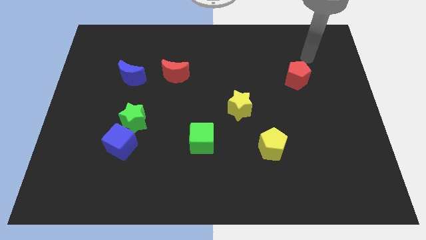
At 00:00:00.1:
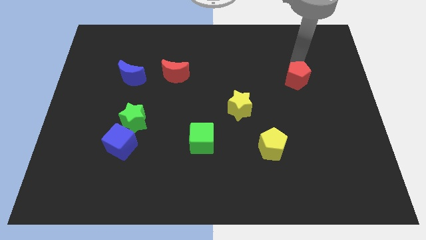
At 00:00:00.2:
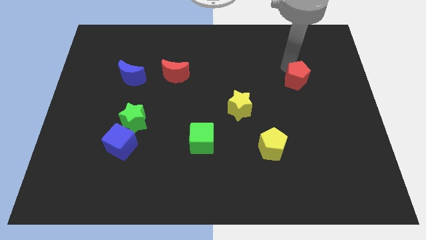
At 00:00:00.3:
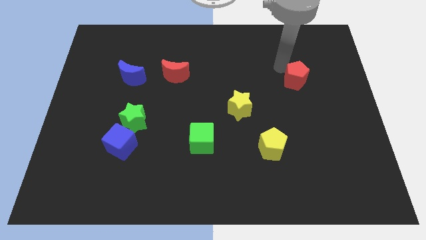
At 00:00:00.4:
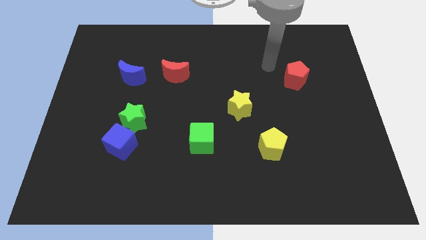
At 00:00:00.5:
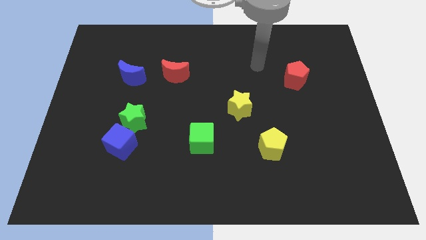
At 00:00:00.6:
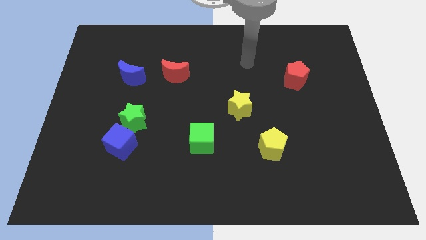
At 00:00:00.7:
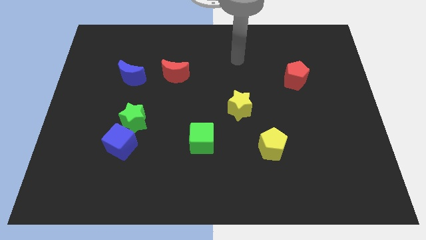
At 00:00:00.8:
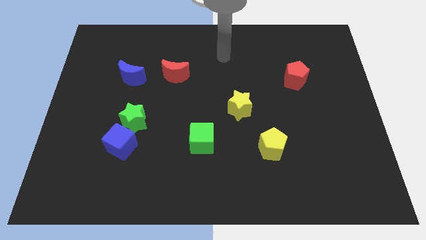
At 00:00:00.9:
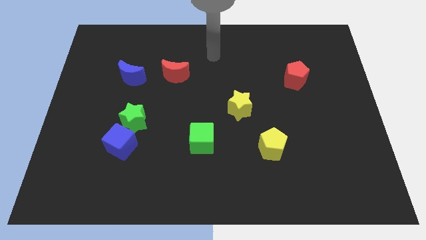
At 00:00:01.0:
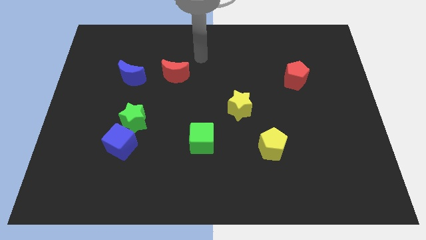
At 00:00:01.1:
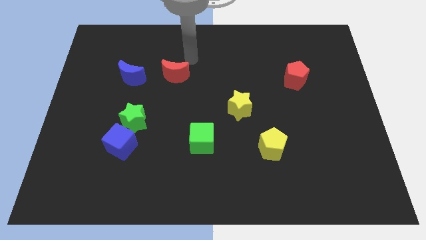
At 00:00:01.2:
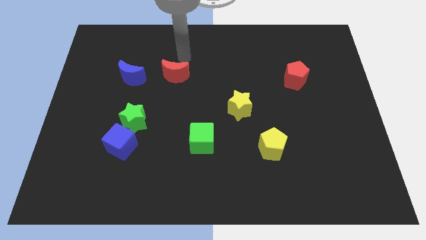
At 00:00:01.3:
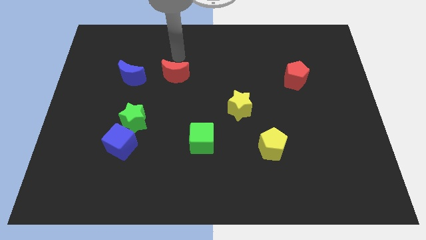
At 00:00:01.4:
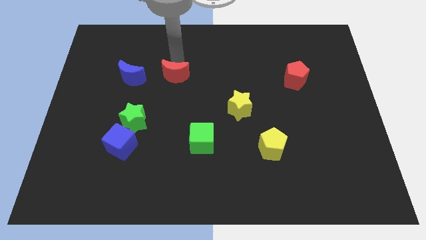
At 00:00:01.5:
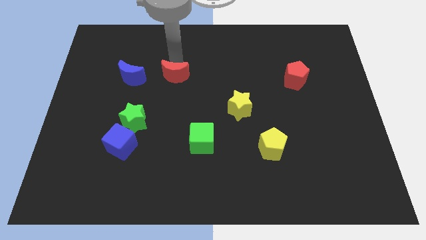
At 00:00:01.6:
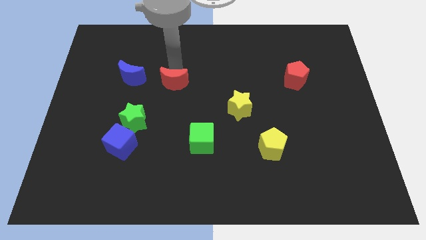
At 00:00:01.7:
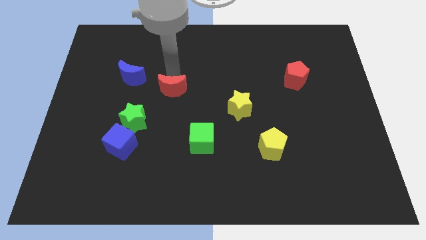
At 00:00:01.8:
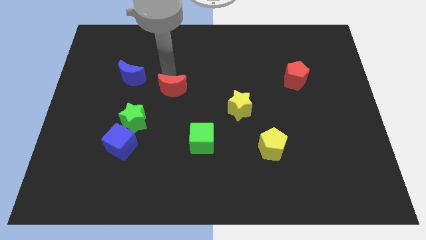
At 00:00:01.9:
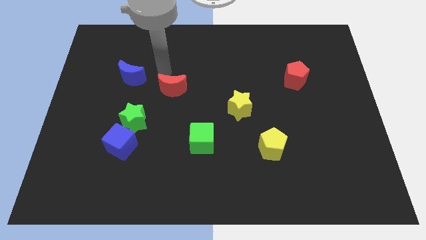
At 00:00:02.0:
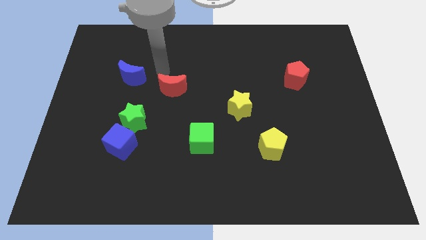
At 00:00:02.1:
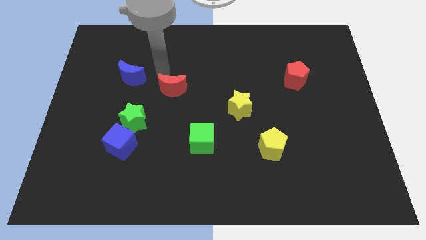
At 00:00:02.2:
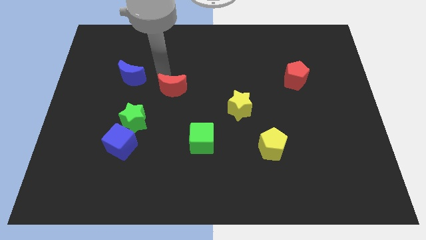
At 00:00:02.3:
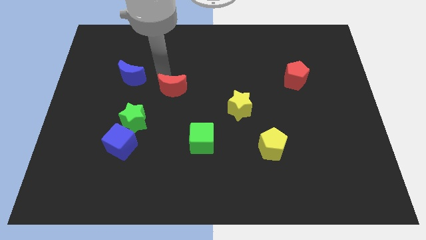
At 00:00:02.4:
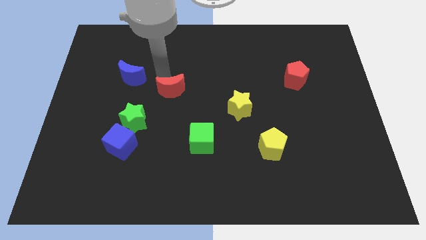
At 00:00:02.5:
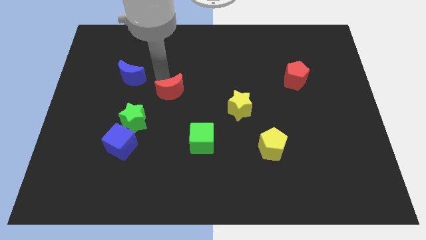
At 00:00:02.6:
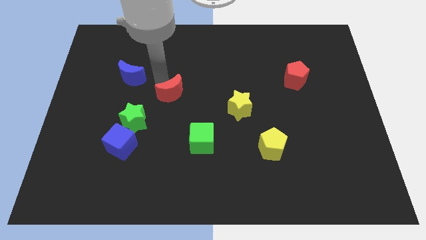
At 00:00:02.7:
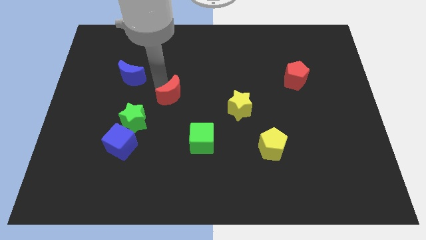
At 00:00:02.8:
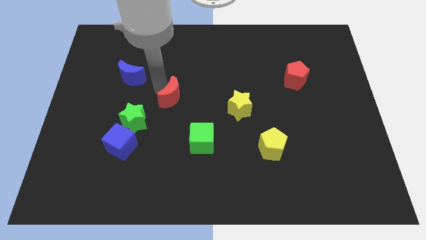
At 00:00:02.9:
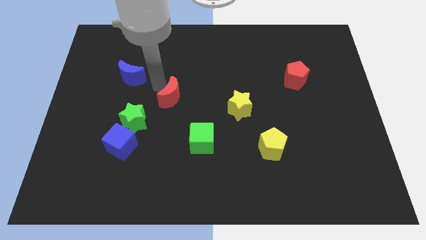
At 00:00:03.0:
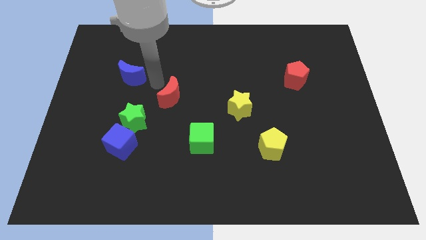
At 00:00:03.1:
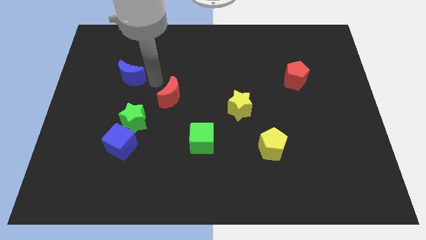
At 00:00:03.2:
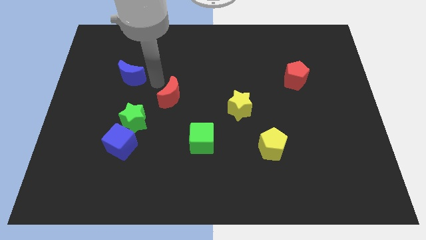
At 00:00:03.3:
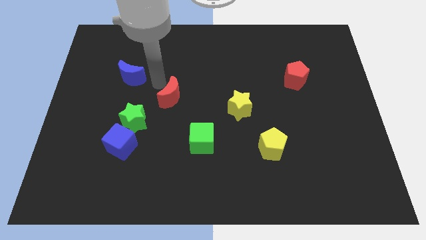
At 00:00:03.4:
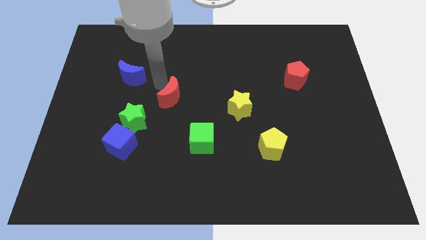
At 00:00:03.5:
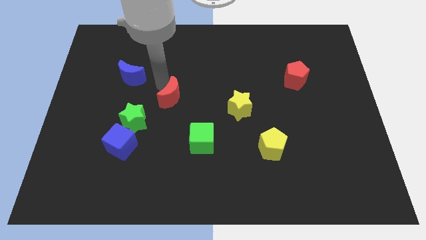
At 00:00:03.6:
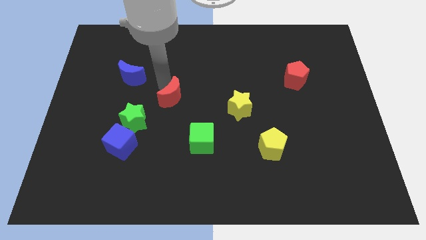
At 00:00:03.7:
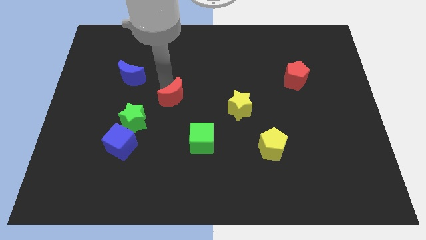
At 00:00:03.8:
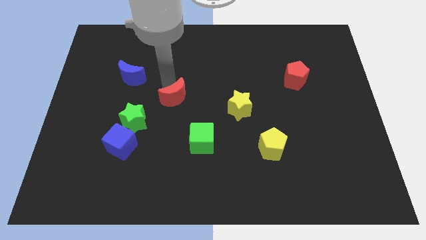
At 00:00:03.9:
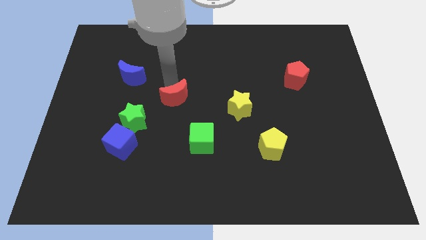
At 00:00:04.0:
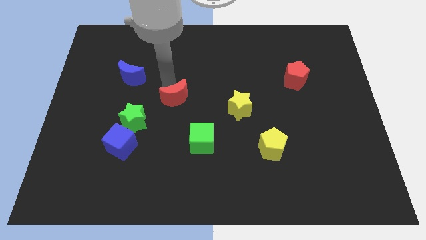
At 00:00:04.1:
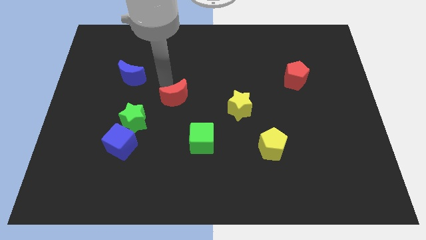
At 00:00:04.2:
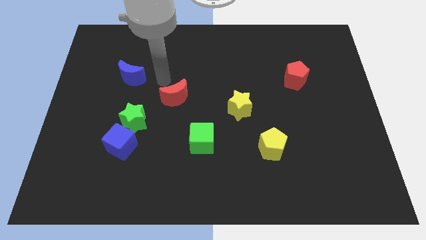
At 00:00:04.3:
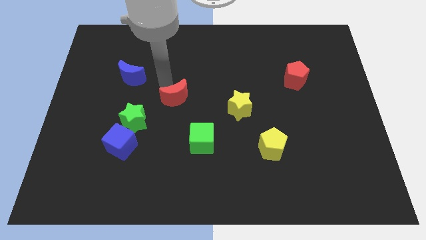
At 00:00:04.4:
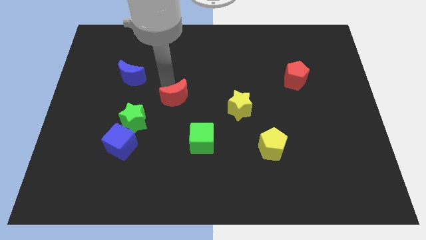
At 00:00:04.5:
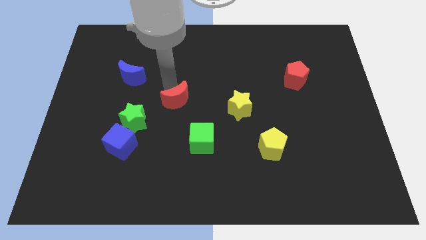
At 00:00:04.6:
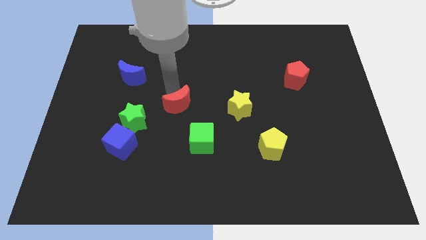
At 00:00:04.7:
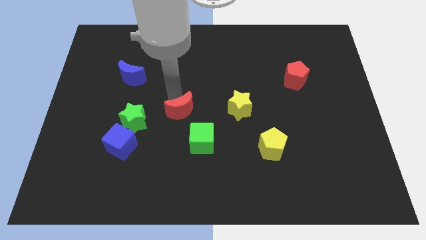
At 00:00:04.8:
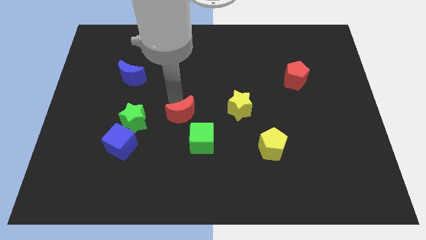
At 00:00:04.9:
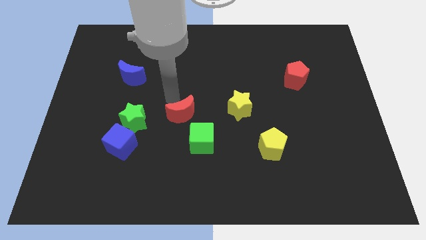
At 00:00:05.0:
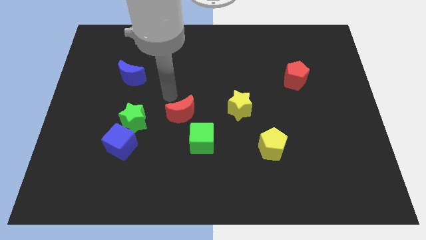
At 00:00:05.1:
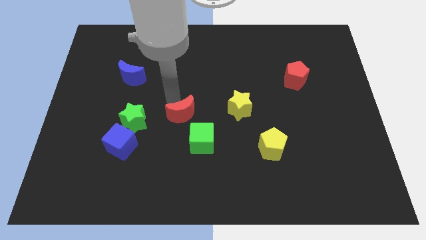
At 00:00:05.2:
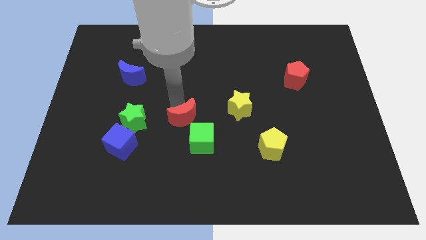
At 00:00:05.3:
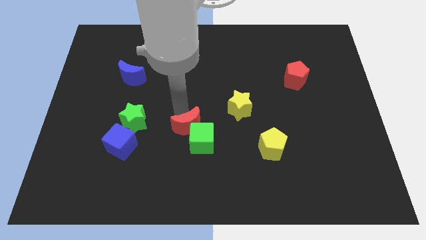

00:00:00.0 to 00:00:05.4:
slide the red moon close to the green cube

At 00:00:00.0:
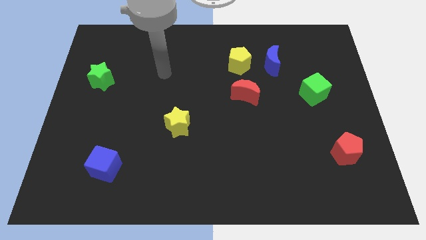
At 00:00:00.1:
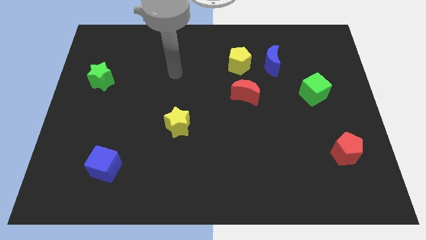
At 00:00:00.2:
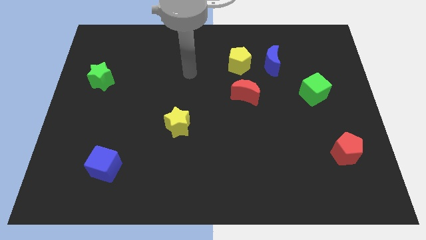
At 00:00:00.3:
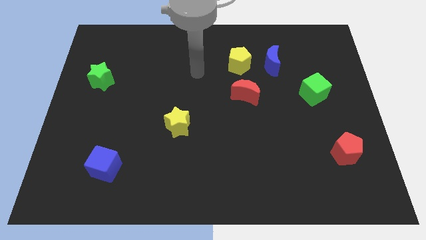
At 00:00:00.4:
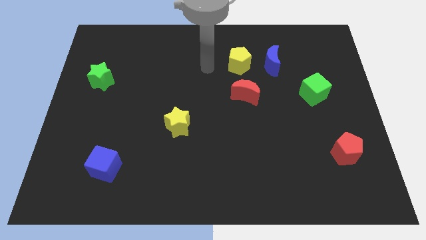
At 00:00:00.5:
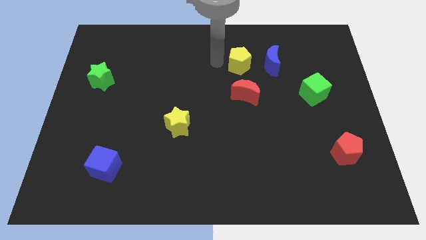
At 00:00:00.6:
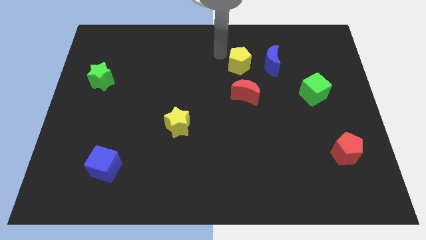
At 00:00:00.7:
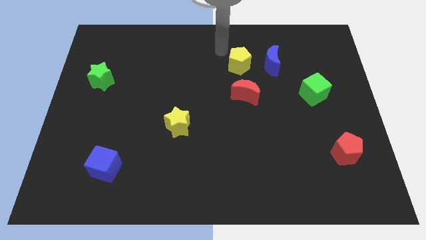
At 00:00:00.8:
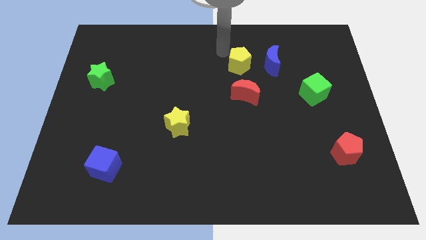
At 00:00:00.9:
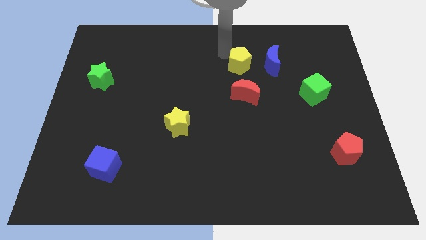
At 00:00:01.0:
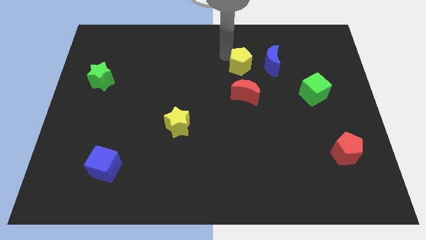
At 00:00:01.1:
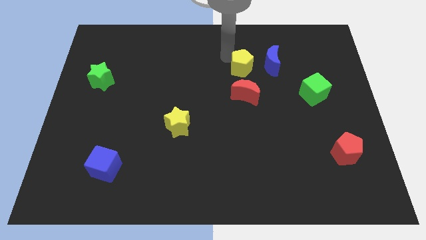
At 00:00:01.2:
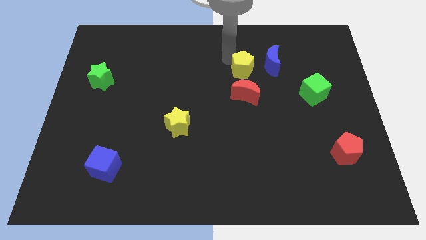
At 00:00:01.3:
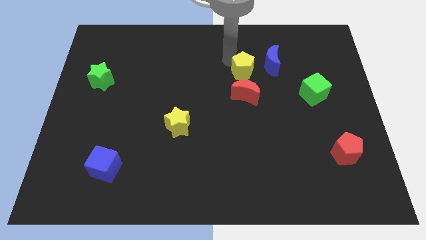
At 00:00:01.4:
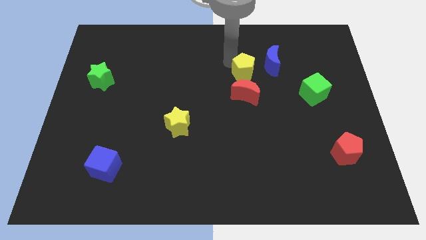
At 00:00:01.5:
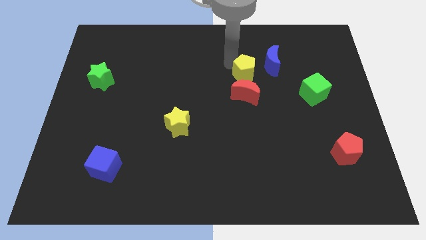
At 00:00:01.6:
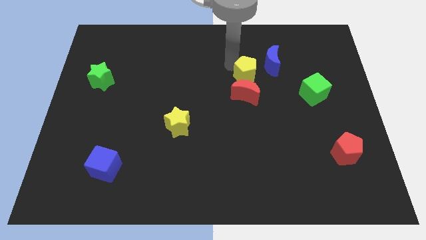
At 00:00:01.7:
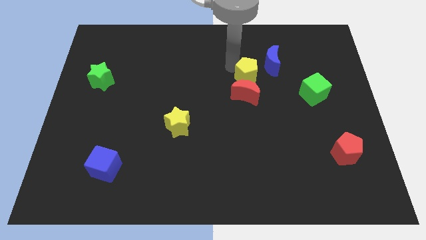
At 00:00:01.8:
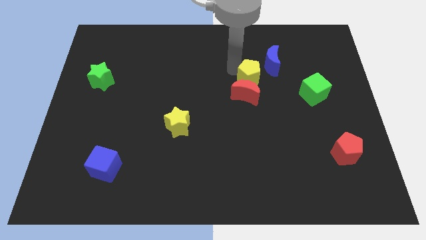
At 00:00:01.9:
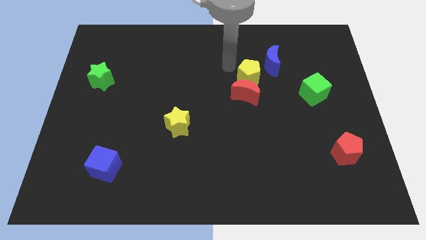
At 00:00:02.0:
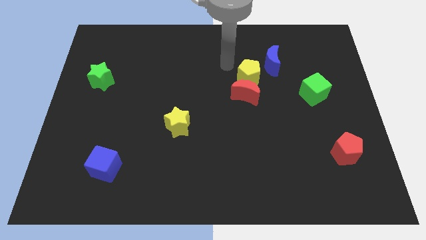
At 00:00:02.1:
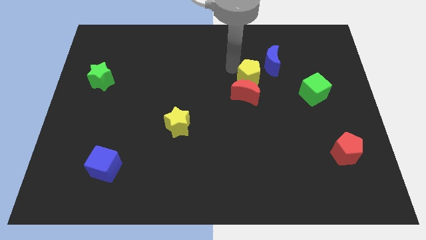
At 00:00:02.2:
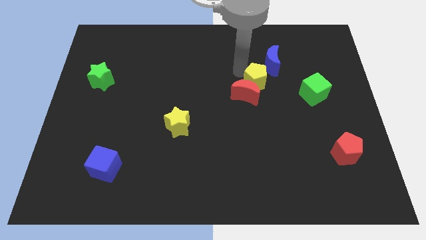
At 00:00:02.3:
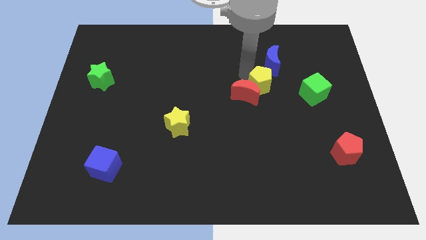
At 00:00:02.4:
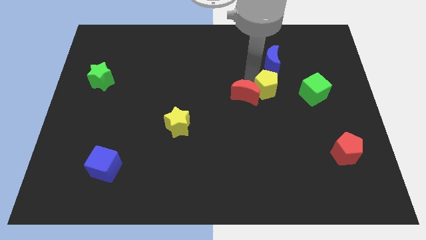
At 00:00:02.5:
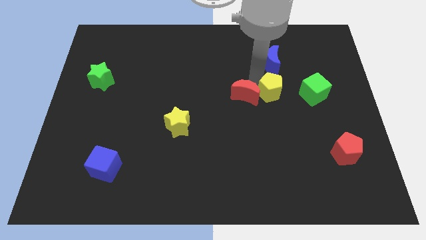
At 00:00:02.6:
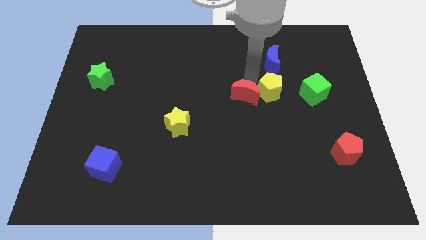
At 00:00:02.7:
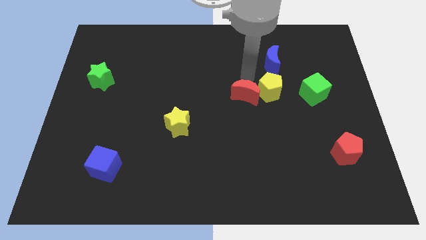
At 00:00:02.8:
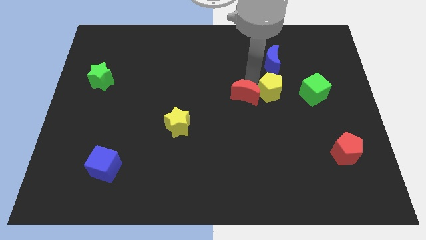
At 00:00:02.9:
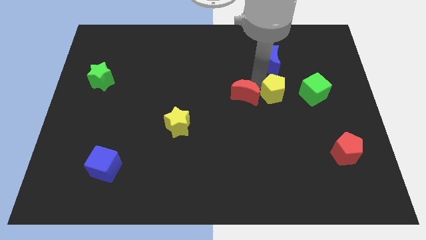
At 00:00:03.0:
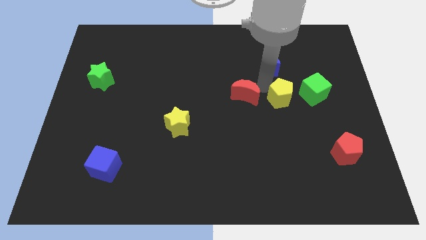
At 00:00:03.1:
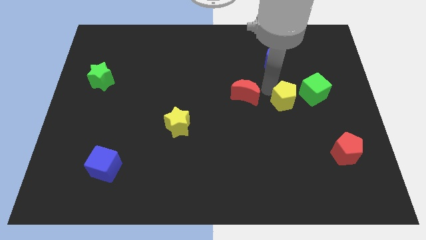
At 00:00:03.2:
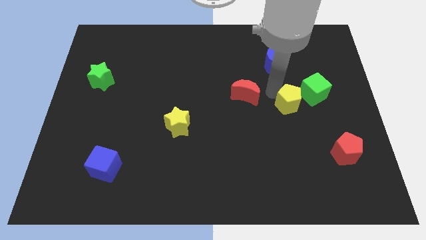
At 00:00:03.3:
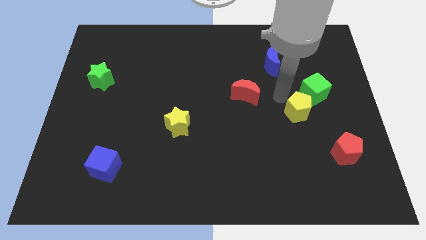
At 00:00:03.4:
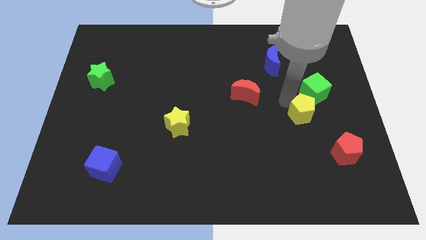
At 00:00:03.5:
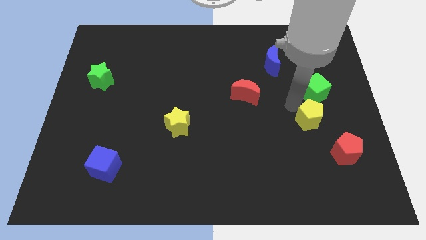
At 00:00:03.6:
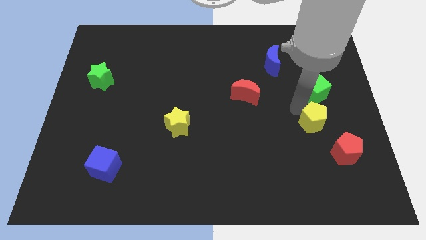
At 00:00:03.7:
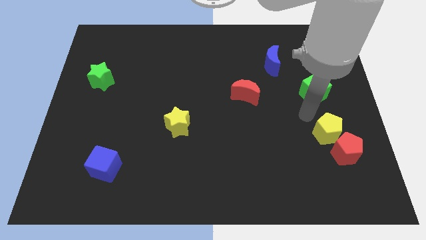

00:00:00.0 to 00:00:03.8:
push the yellow pentagon to the red pentagon
